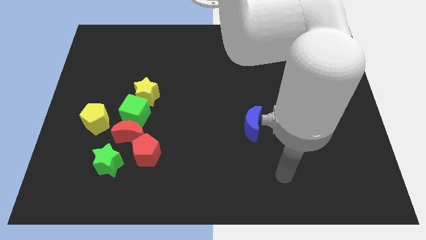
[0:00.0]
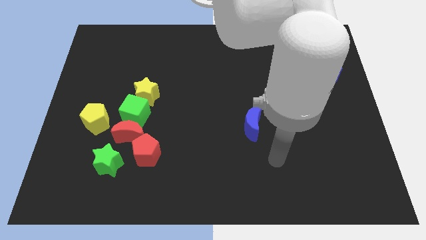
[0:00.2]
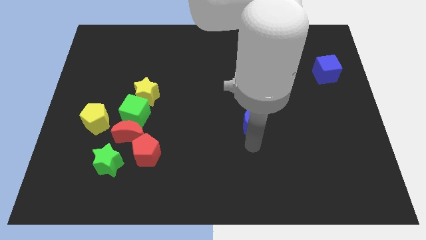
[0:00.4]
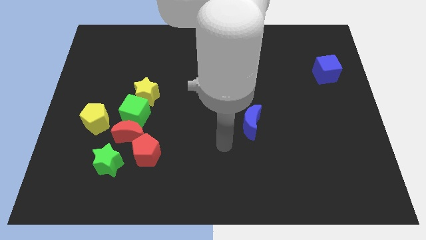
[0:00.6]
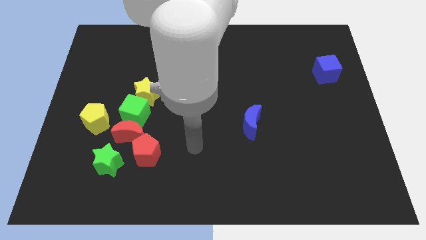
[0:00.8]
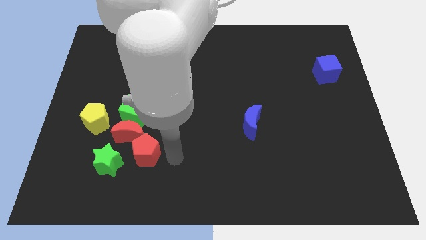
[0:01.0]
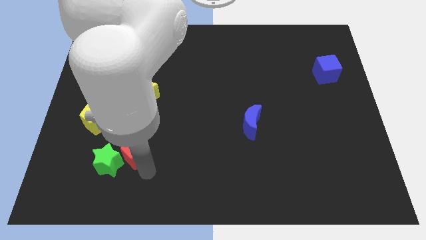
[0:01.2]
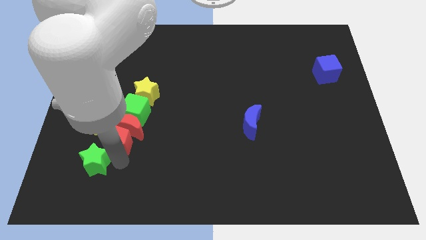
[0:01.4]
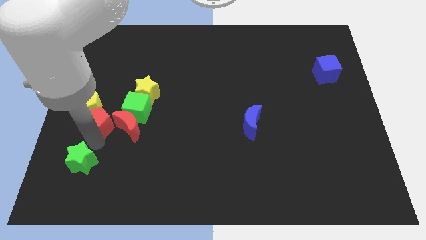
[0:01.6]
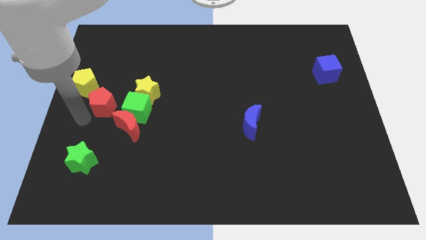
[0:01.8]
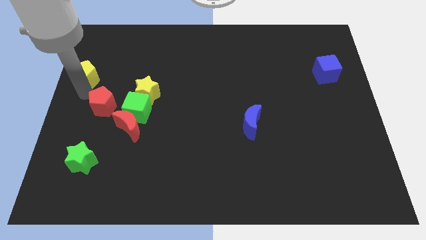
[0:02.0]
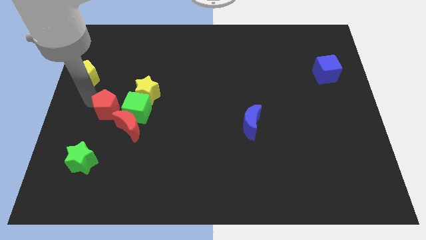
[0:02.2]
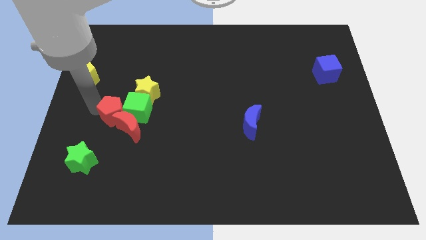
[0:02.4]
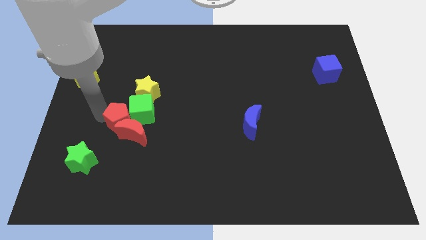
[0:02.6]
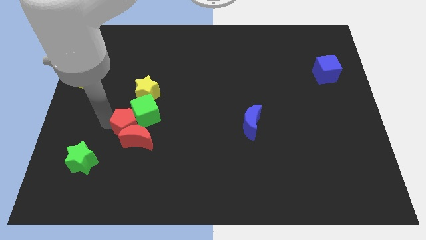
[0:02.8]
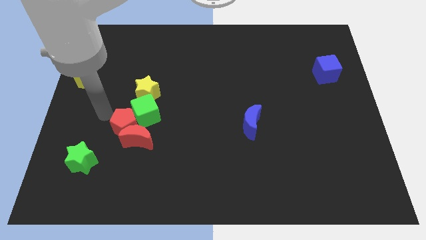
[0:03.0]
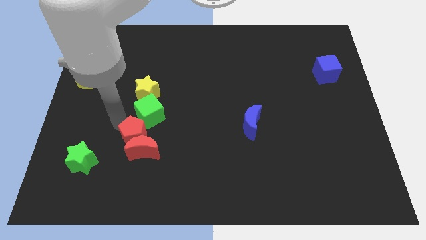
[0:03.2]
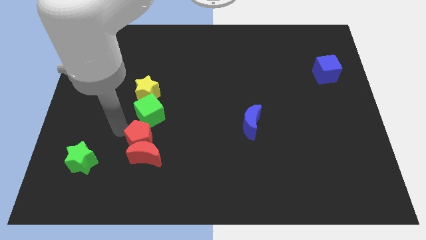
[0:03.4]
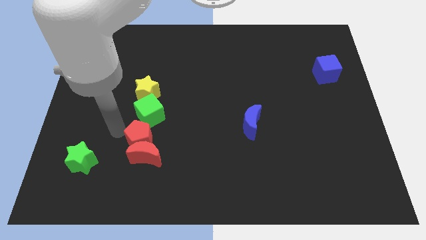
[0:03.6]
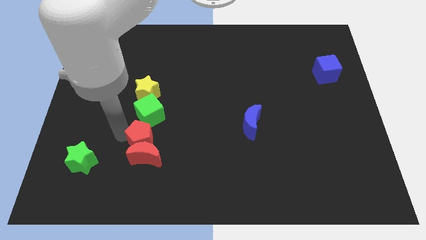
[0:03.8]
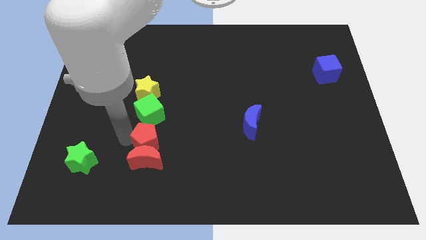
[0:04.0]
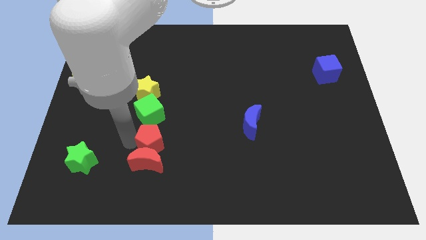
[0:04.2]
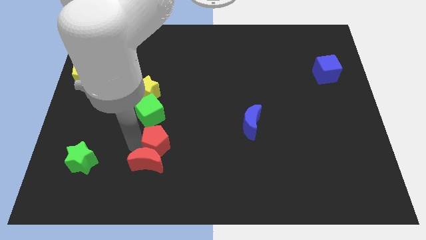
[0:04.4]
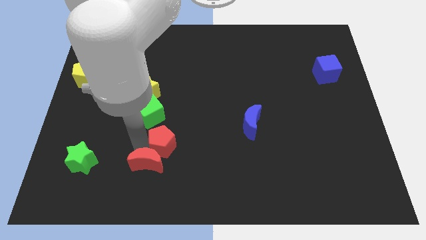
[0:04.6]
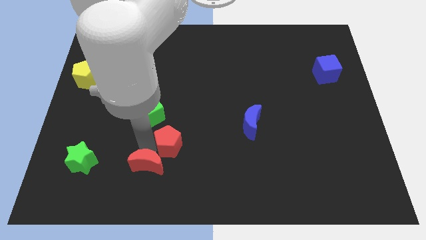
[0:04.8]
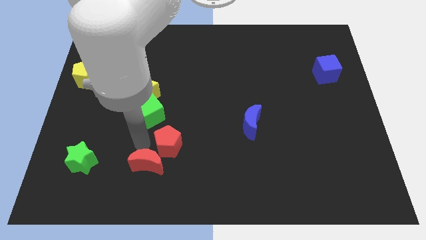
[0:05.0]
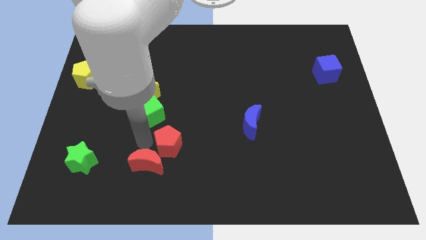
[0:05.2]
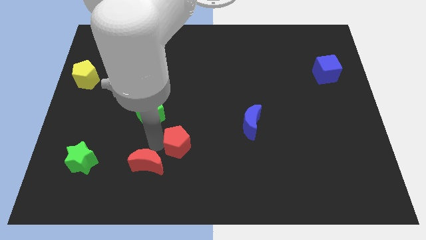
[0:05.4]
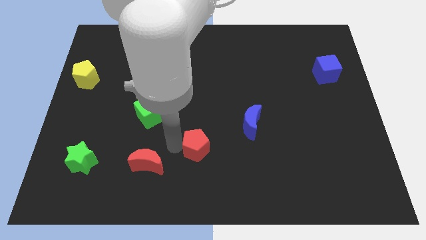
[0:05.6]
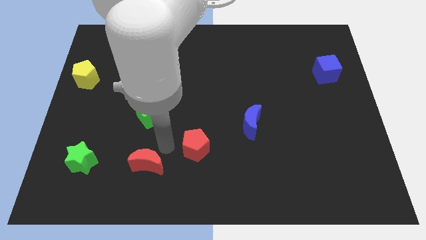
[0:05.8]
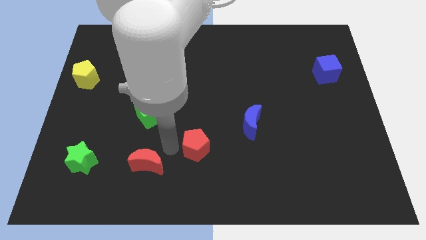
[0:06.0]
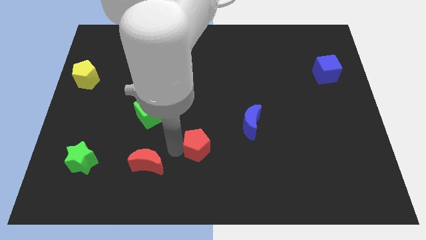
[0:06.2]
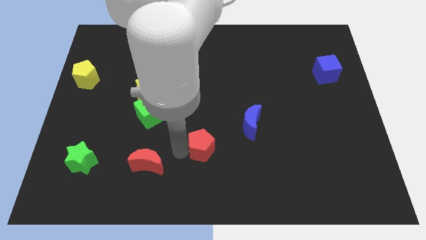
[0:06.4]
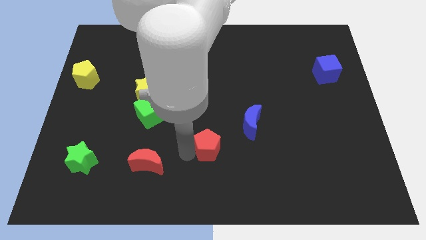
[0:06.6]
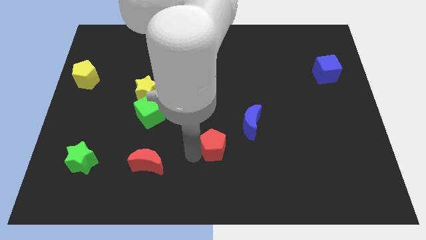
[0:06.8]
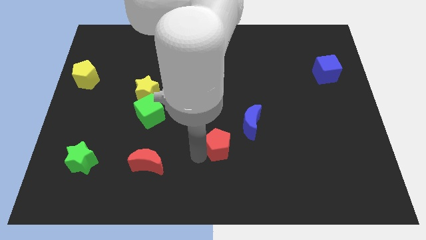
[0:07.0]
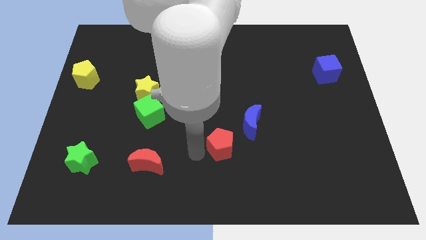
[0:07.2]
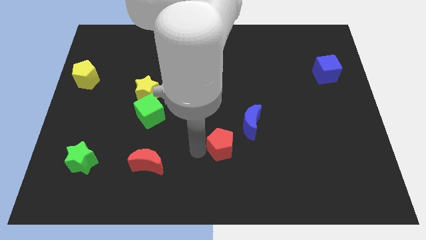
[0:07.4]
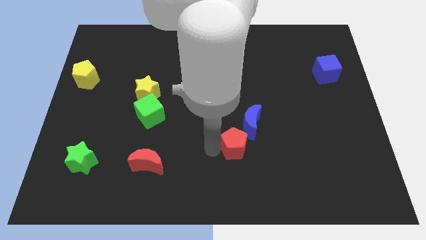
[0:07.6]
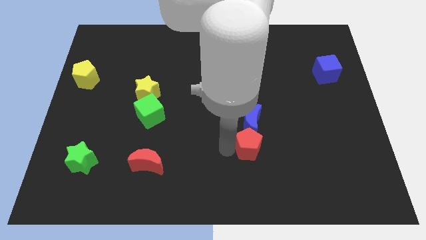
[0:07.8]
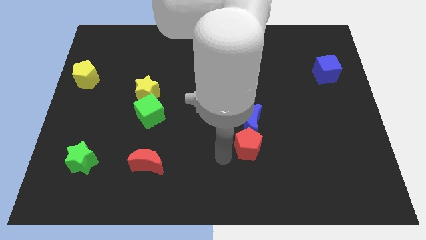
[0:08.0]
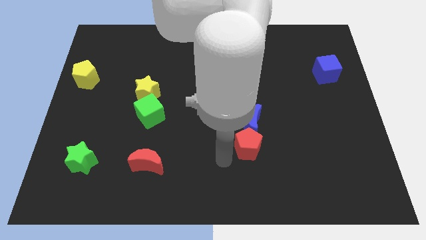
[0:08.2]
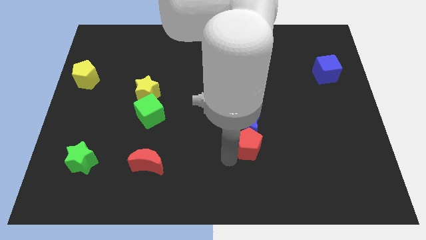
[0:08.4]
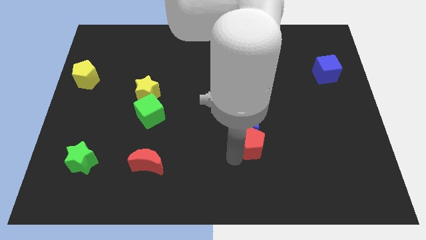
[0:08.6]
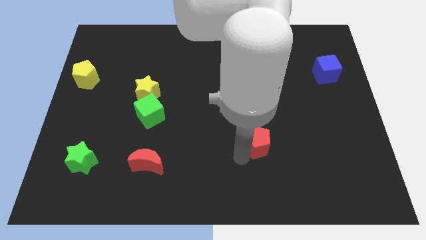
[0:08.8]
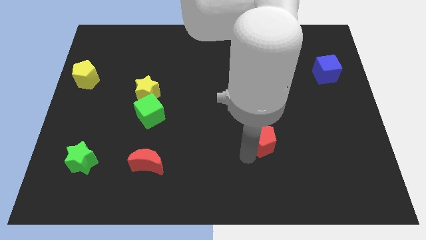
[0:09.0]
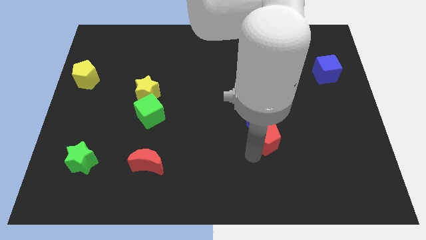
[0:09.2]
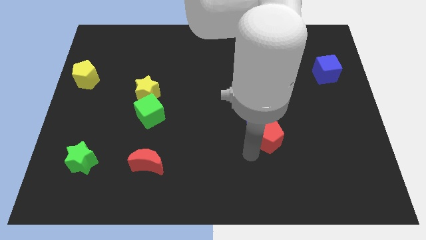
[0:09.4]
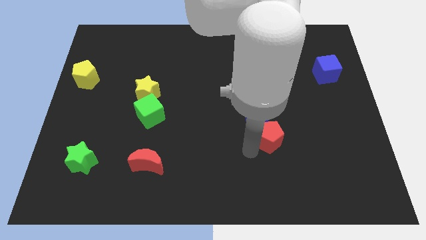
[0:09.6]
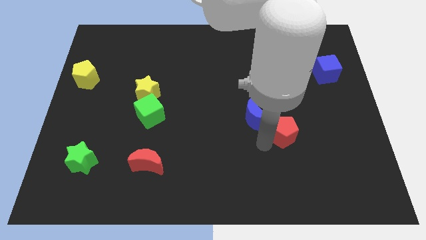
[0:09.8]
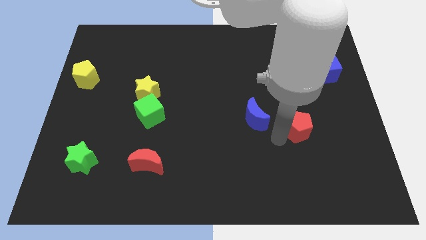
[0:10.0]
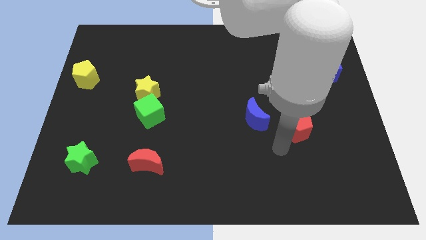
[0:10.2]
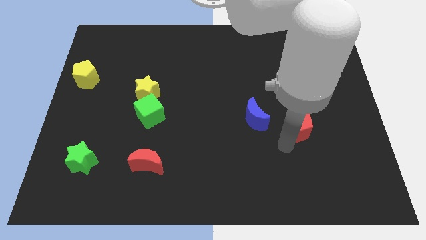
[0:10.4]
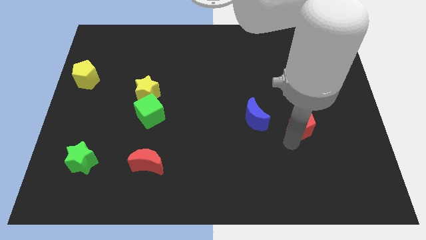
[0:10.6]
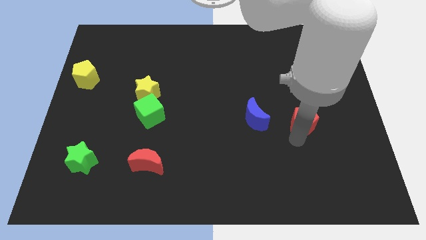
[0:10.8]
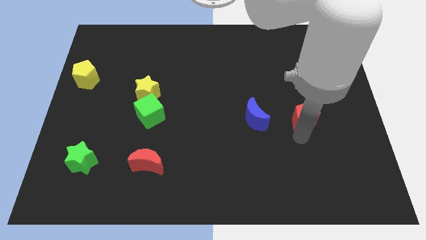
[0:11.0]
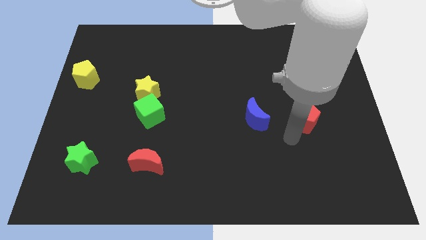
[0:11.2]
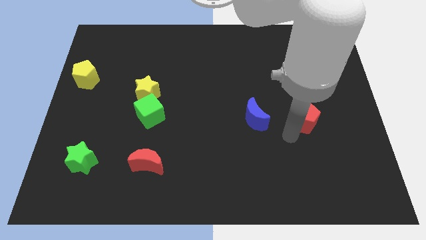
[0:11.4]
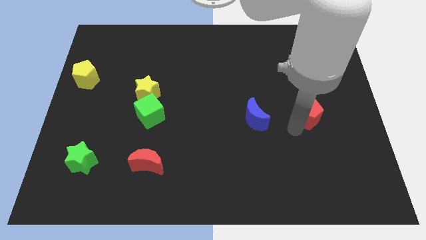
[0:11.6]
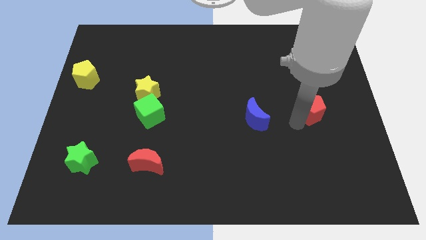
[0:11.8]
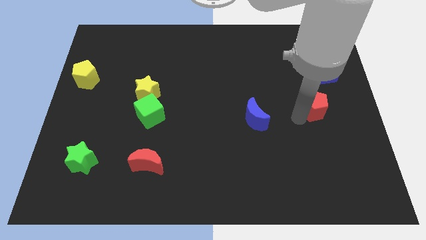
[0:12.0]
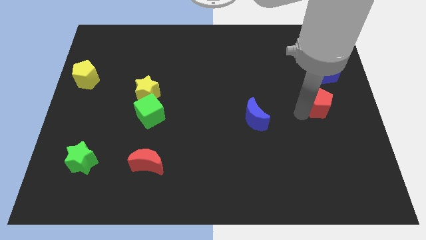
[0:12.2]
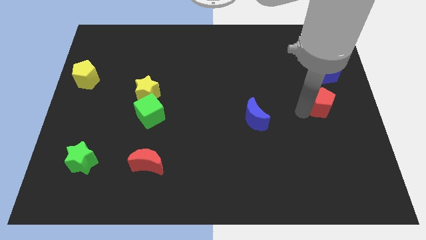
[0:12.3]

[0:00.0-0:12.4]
move the red pentagon to the center right

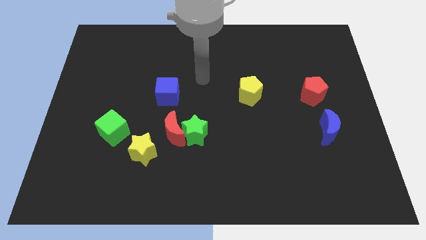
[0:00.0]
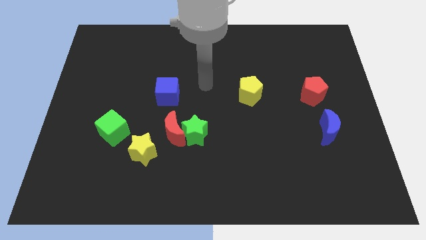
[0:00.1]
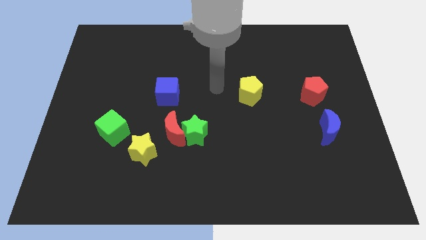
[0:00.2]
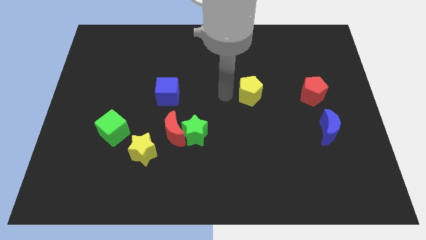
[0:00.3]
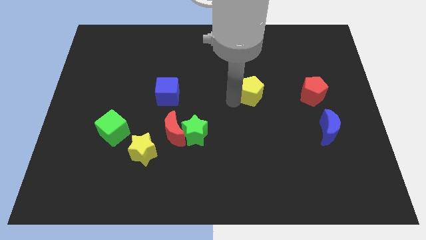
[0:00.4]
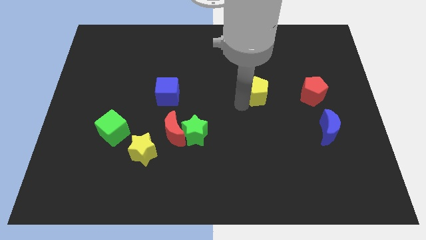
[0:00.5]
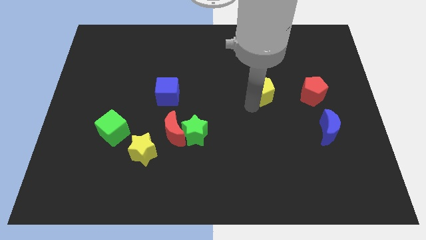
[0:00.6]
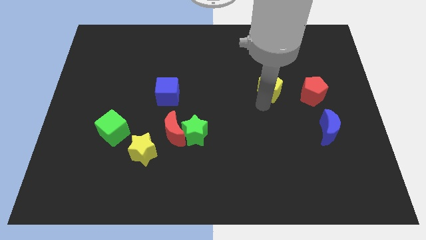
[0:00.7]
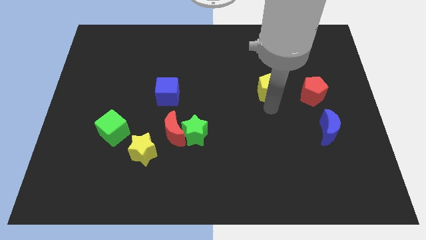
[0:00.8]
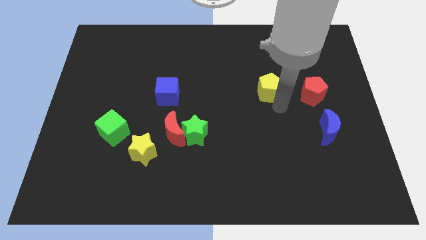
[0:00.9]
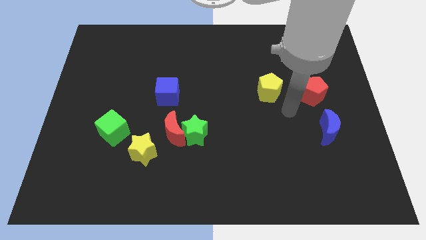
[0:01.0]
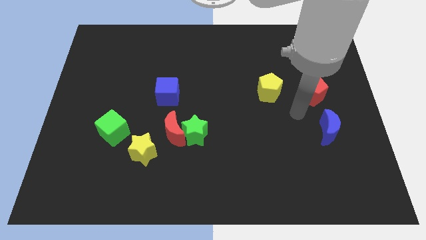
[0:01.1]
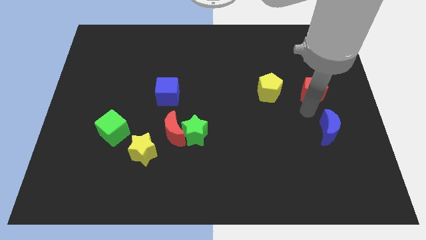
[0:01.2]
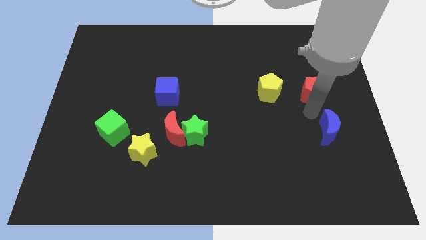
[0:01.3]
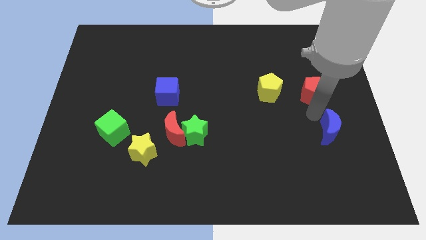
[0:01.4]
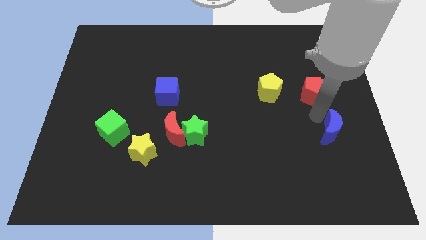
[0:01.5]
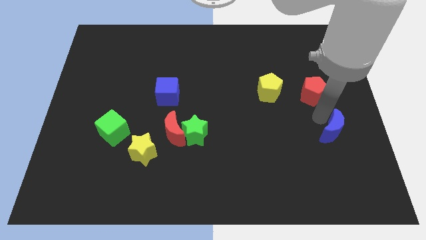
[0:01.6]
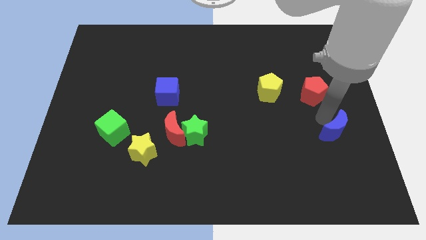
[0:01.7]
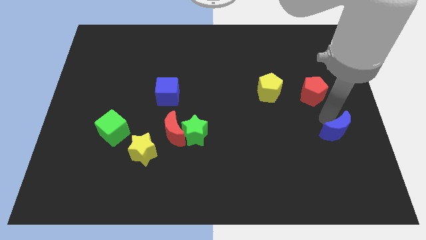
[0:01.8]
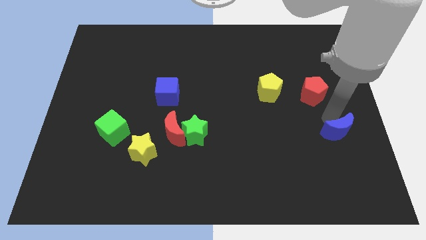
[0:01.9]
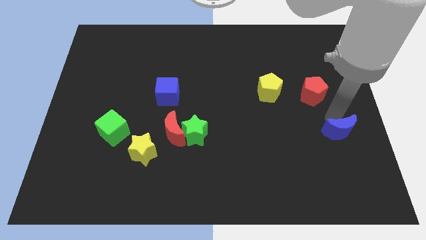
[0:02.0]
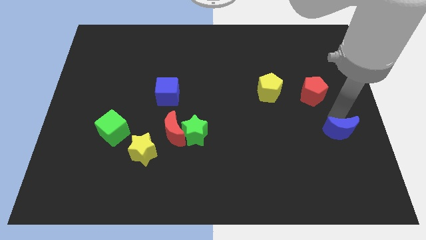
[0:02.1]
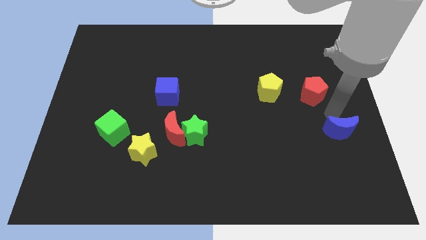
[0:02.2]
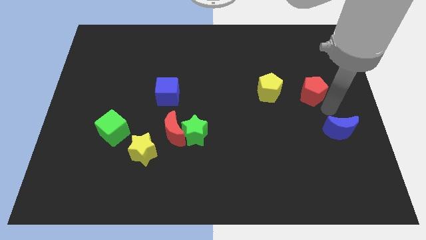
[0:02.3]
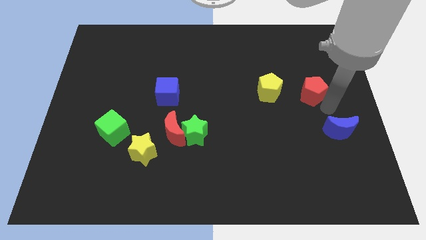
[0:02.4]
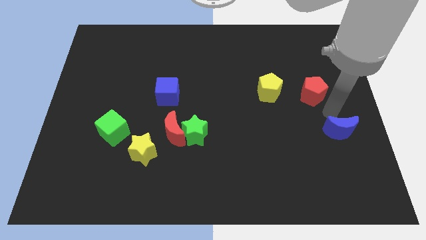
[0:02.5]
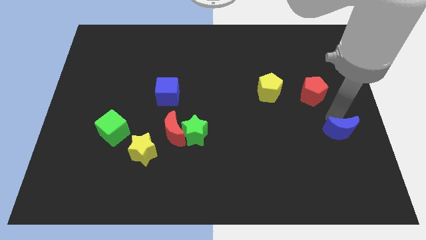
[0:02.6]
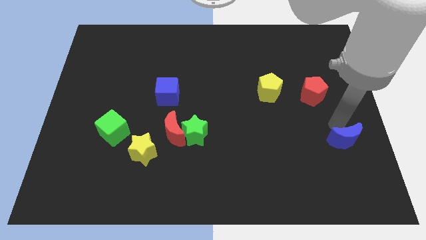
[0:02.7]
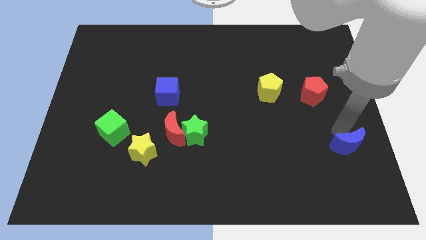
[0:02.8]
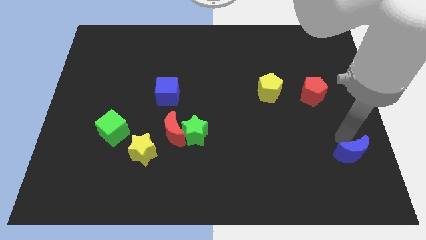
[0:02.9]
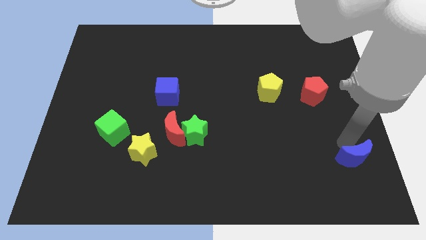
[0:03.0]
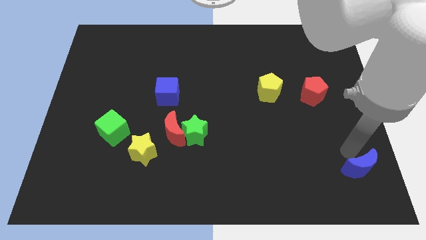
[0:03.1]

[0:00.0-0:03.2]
put the blue moon to the bottom right
